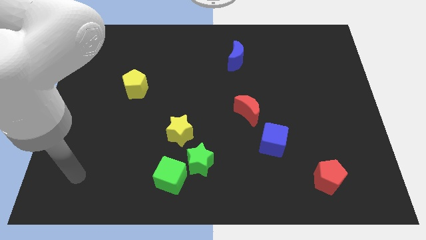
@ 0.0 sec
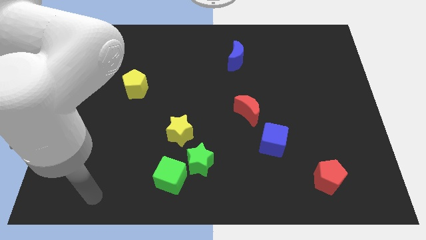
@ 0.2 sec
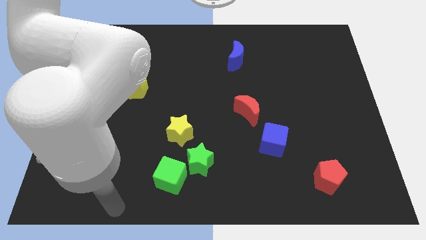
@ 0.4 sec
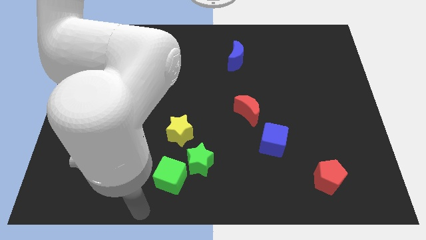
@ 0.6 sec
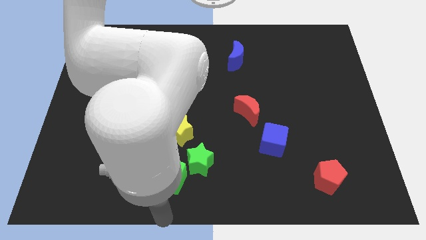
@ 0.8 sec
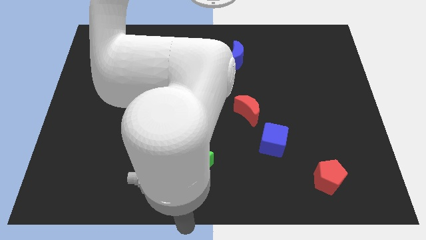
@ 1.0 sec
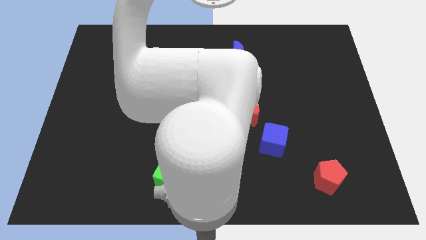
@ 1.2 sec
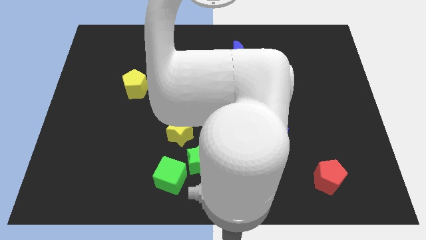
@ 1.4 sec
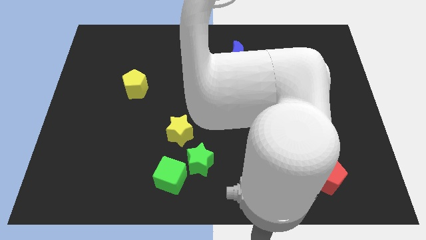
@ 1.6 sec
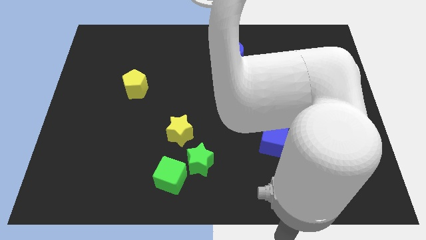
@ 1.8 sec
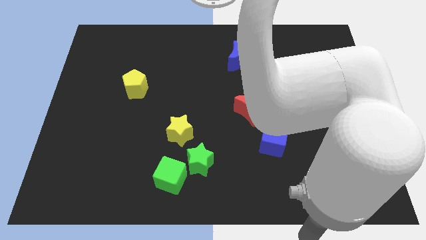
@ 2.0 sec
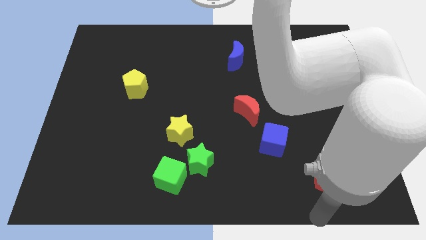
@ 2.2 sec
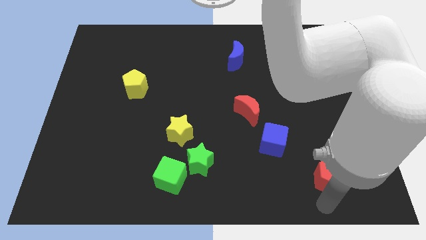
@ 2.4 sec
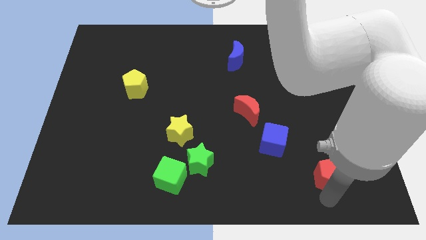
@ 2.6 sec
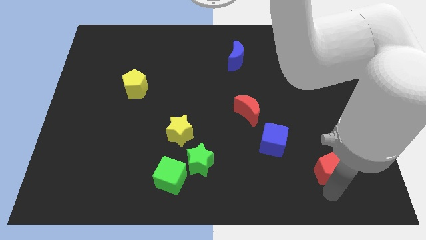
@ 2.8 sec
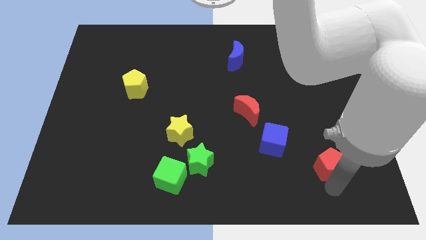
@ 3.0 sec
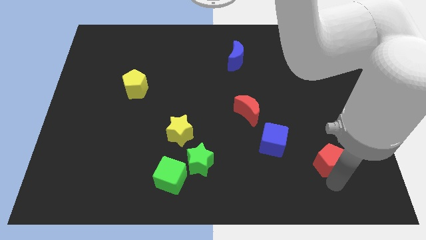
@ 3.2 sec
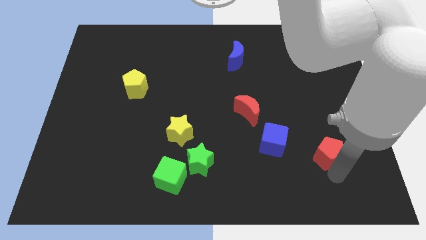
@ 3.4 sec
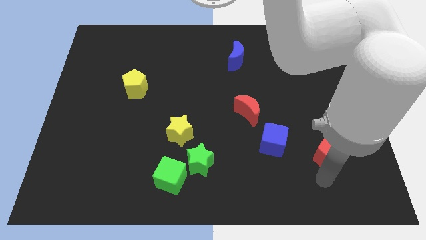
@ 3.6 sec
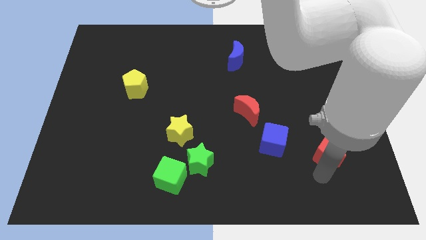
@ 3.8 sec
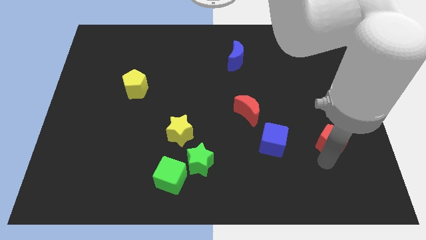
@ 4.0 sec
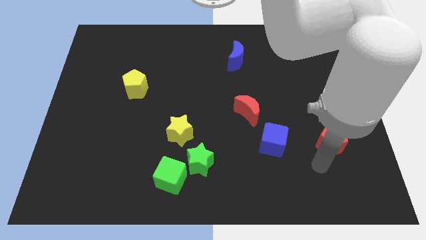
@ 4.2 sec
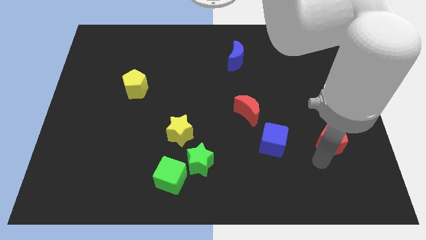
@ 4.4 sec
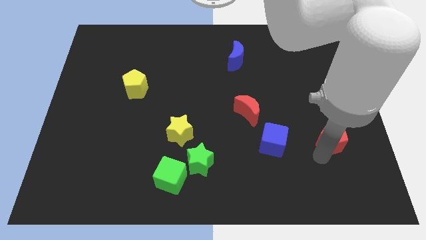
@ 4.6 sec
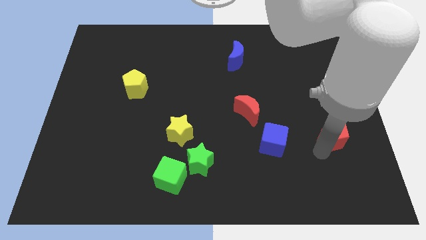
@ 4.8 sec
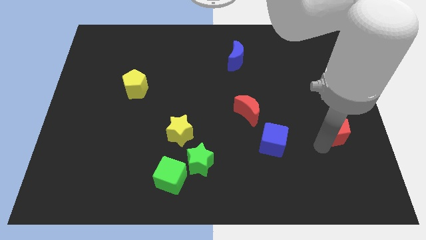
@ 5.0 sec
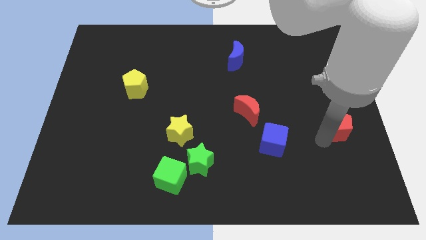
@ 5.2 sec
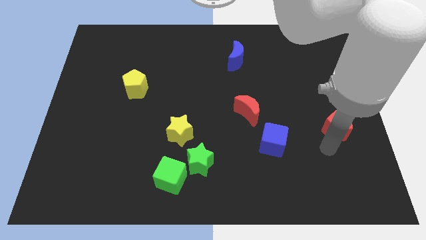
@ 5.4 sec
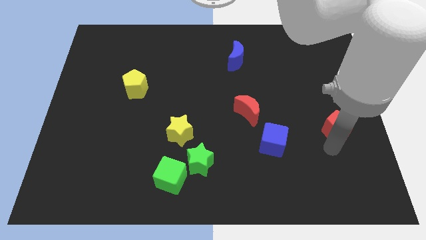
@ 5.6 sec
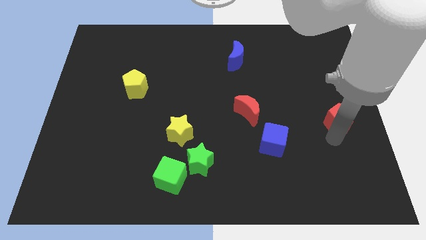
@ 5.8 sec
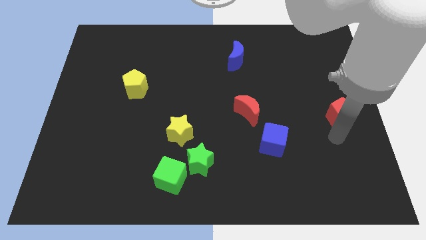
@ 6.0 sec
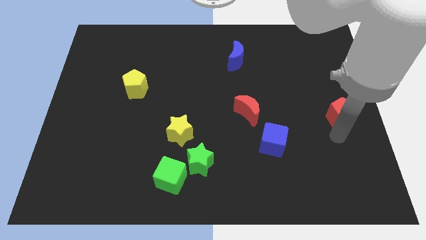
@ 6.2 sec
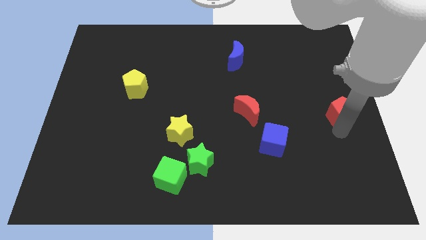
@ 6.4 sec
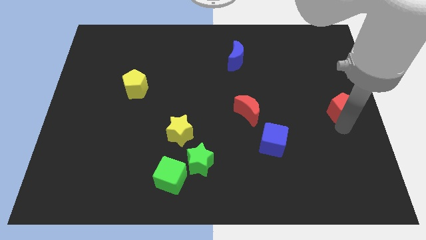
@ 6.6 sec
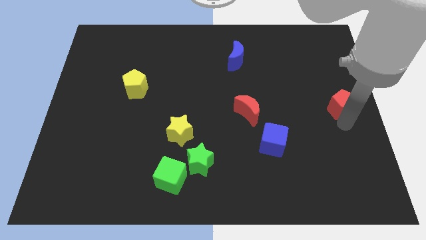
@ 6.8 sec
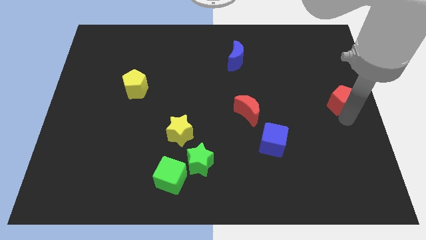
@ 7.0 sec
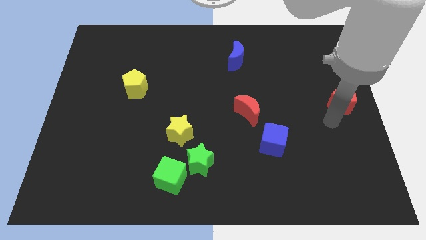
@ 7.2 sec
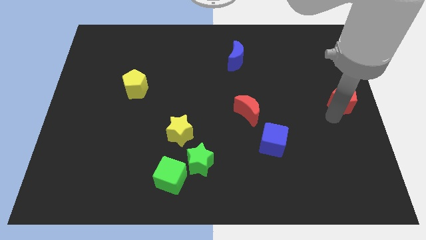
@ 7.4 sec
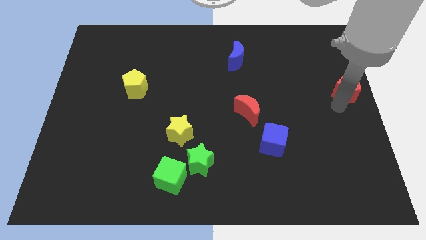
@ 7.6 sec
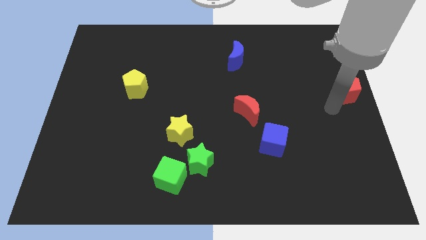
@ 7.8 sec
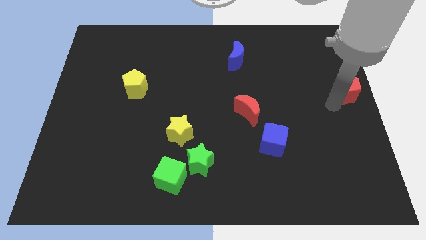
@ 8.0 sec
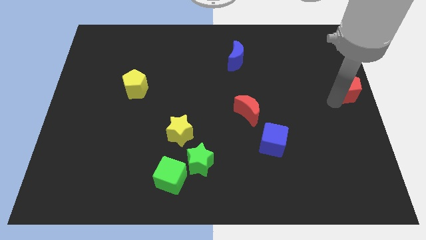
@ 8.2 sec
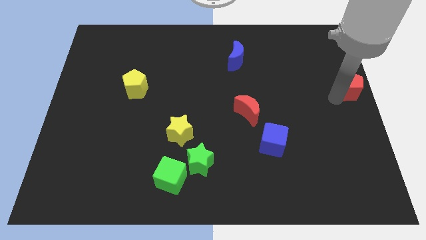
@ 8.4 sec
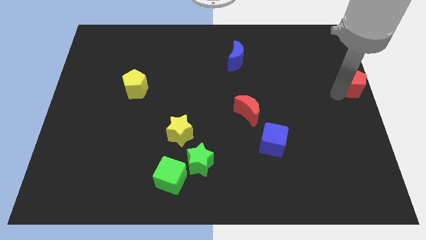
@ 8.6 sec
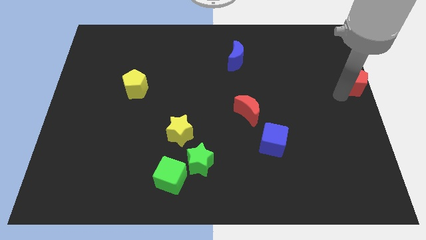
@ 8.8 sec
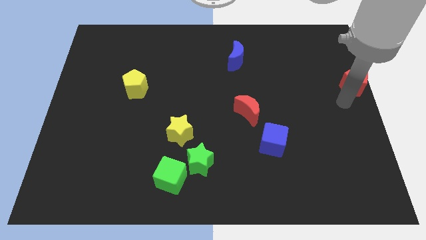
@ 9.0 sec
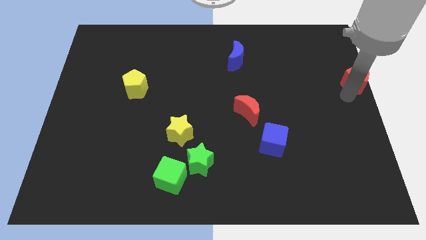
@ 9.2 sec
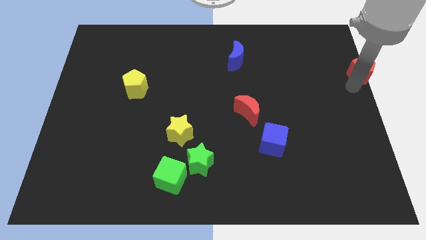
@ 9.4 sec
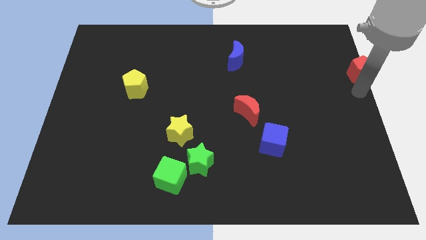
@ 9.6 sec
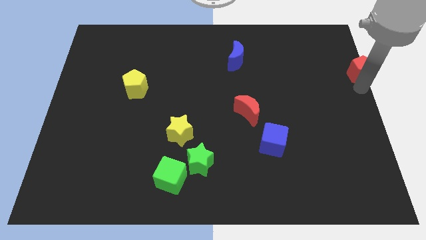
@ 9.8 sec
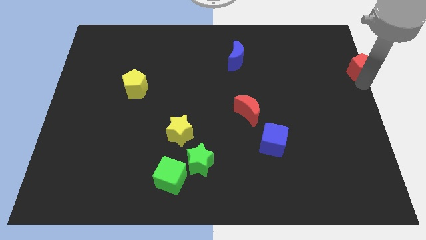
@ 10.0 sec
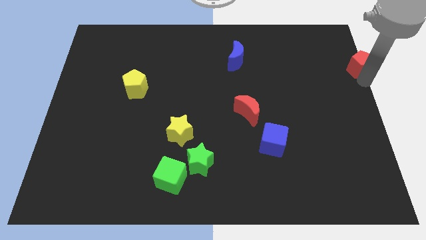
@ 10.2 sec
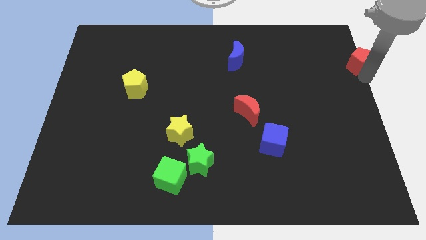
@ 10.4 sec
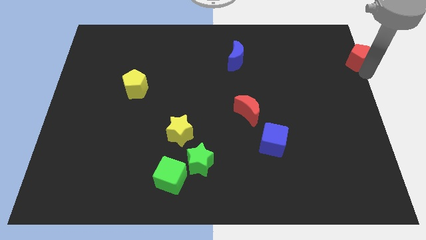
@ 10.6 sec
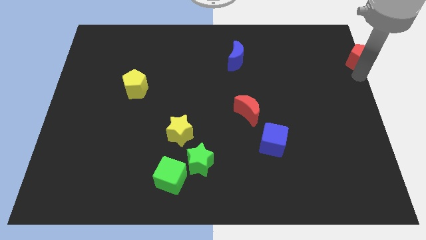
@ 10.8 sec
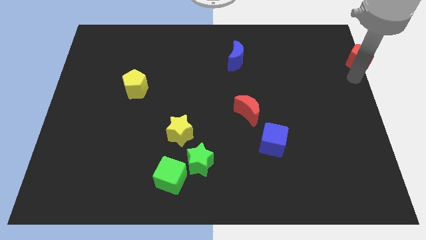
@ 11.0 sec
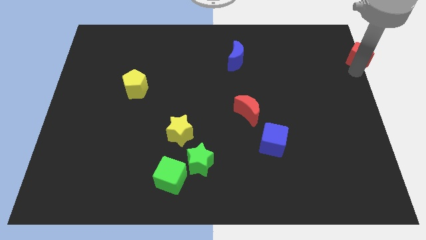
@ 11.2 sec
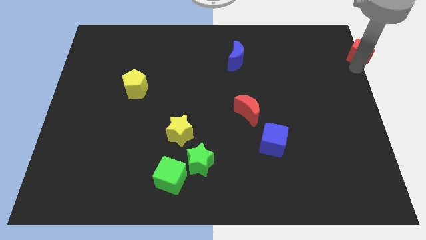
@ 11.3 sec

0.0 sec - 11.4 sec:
move the red pentagon to the upper right corner

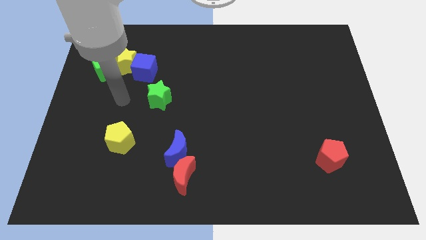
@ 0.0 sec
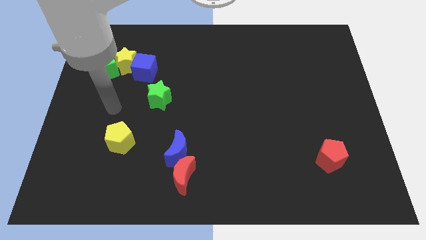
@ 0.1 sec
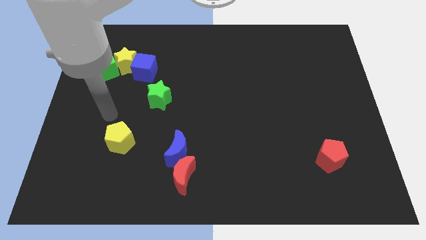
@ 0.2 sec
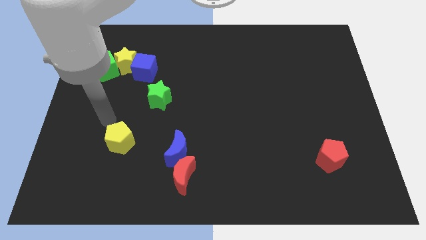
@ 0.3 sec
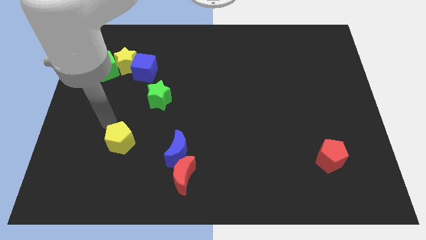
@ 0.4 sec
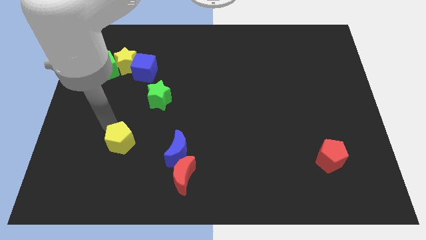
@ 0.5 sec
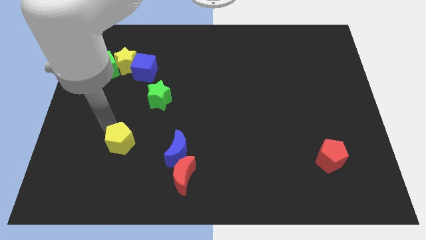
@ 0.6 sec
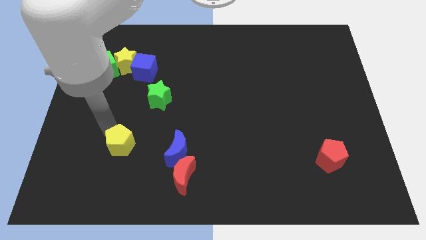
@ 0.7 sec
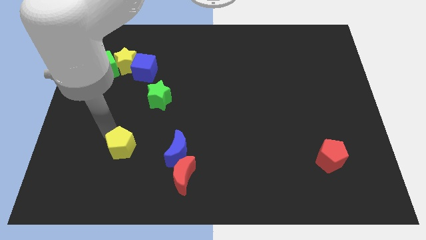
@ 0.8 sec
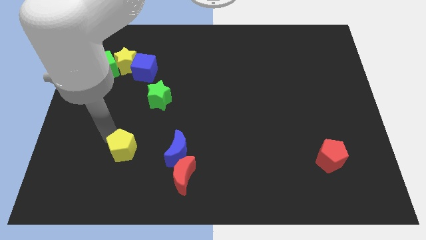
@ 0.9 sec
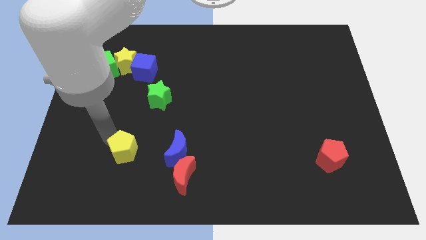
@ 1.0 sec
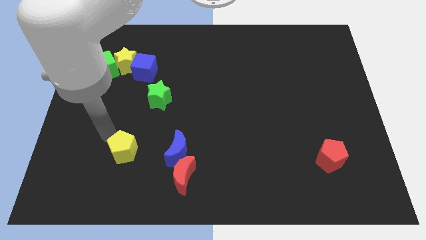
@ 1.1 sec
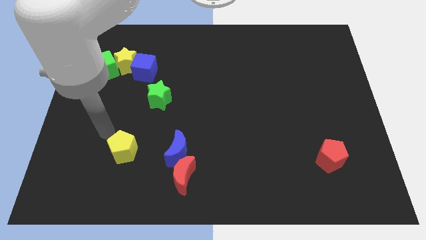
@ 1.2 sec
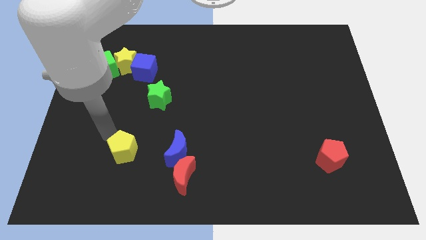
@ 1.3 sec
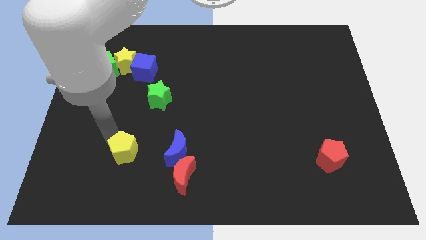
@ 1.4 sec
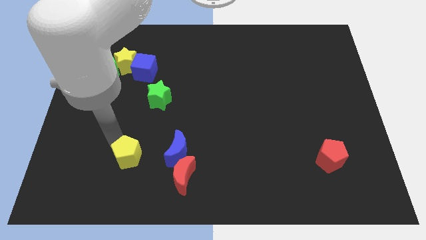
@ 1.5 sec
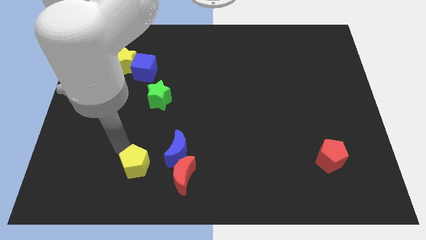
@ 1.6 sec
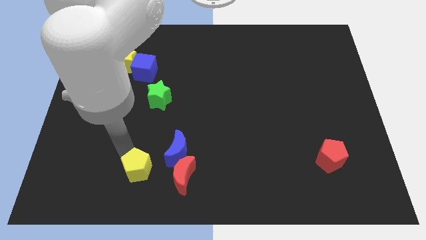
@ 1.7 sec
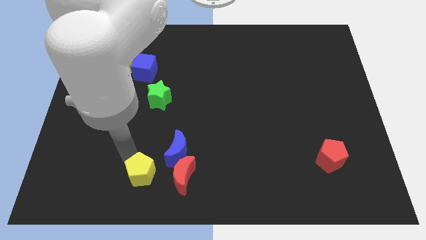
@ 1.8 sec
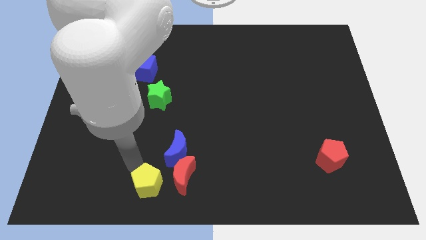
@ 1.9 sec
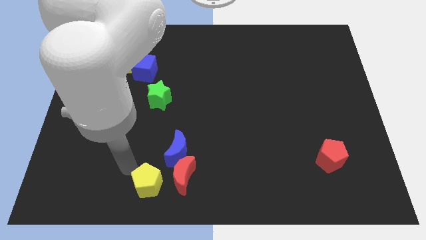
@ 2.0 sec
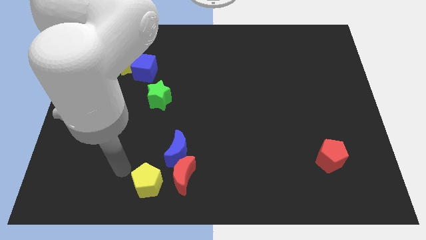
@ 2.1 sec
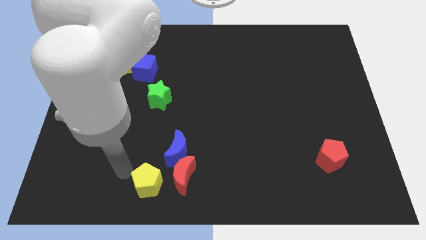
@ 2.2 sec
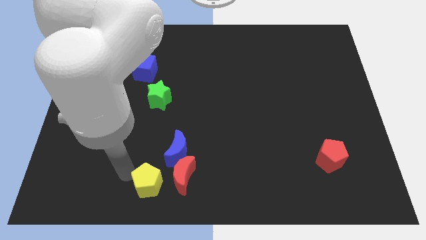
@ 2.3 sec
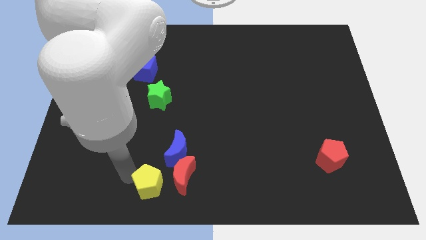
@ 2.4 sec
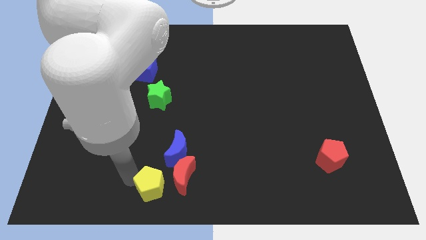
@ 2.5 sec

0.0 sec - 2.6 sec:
move the yellow pentagon to the bottom
